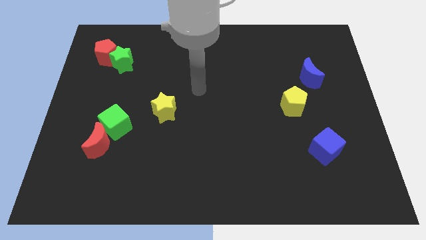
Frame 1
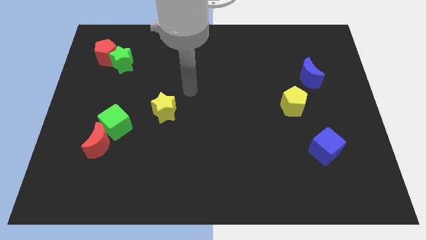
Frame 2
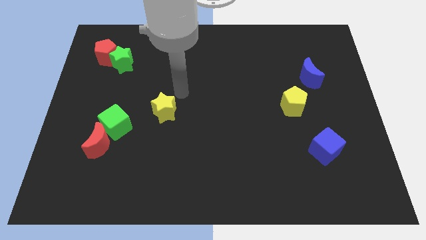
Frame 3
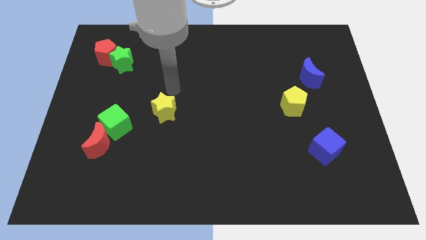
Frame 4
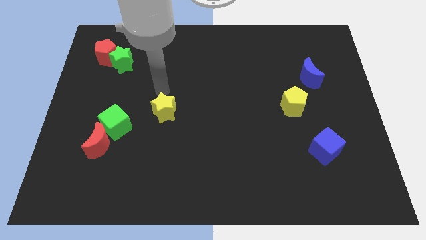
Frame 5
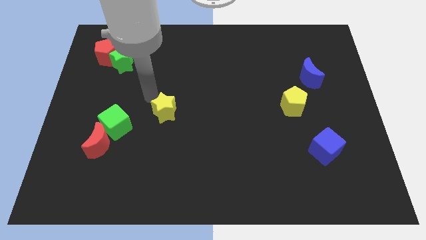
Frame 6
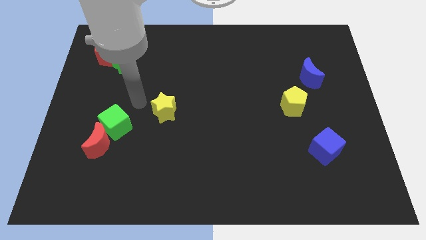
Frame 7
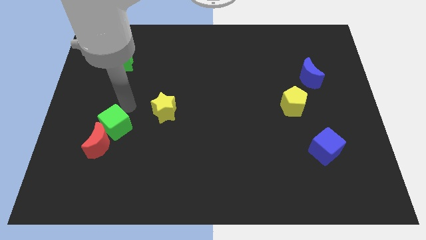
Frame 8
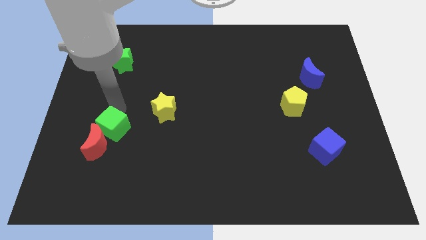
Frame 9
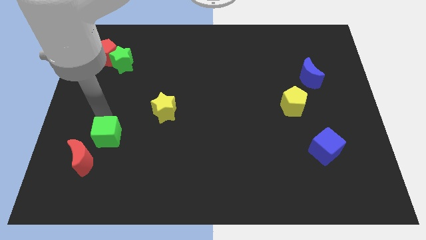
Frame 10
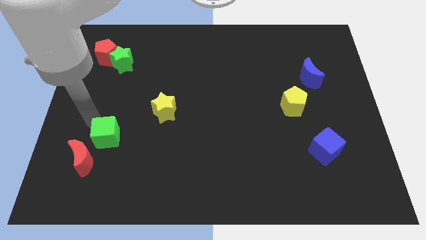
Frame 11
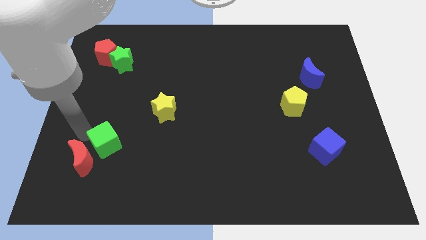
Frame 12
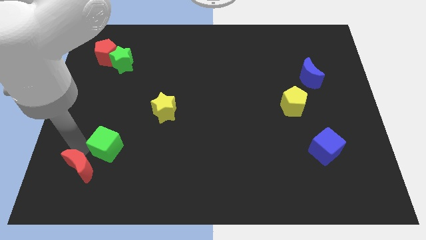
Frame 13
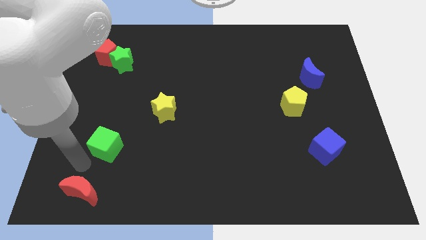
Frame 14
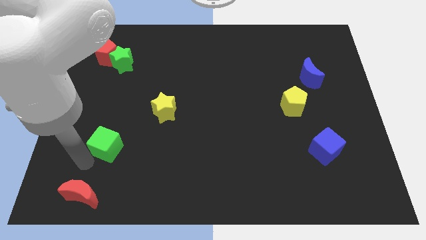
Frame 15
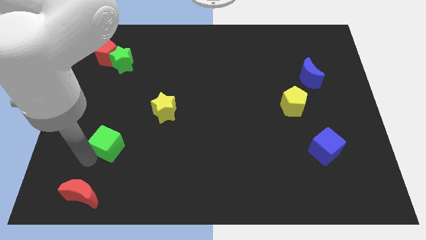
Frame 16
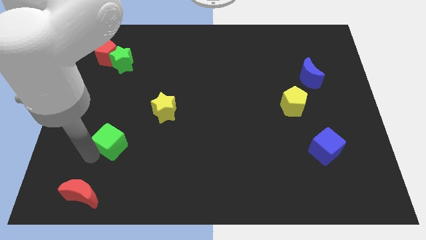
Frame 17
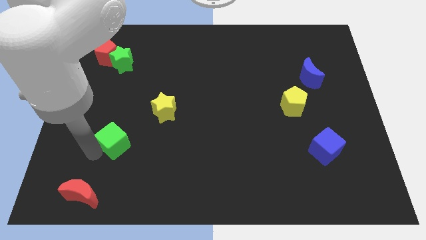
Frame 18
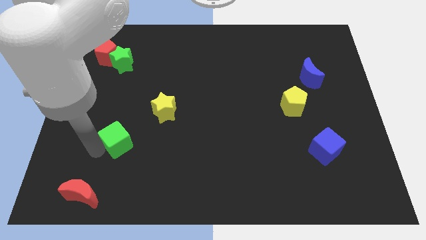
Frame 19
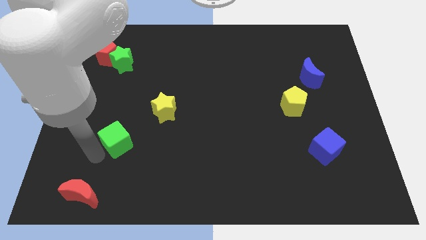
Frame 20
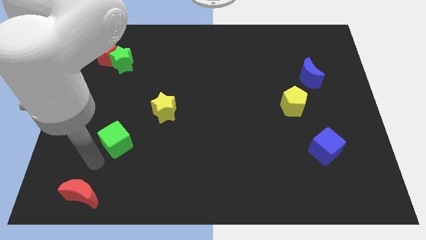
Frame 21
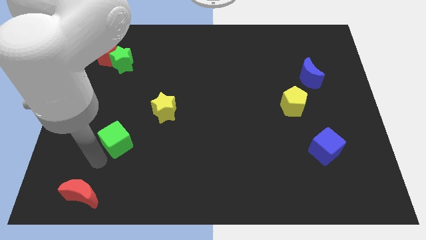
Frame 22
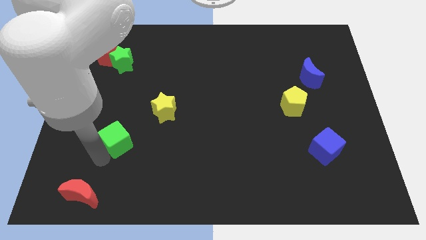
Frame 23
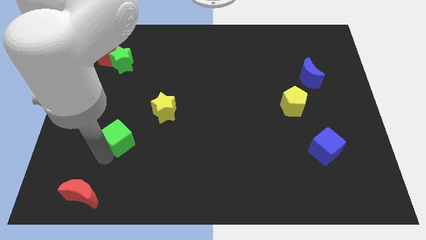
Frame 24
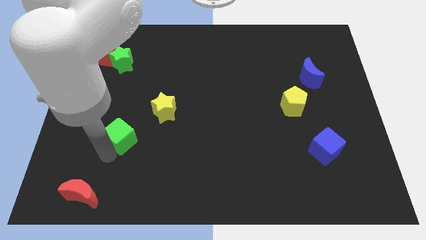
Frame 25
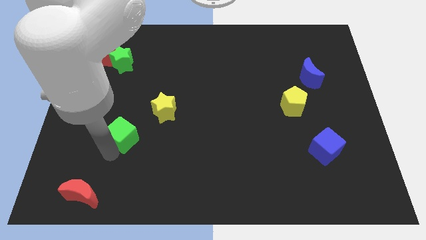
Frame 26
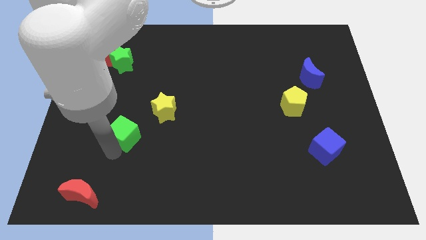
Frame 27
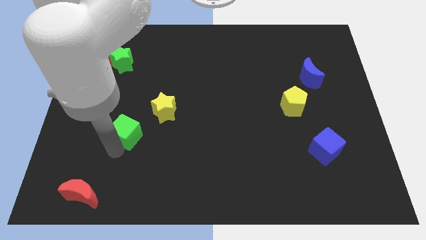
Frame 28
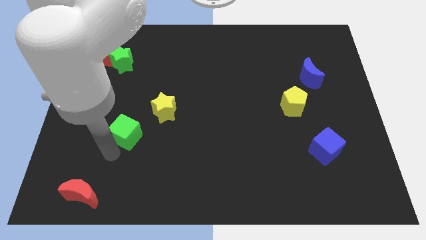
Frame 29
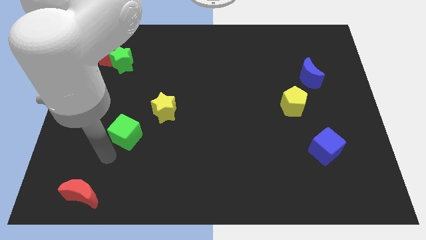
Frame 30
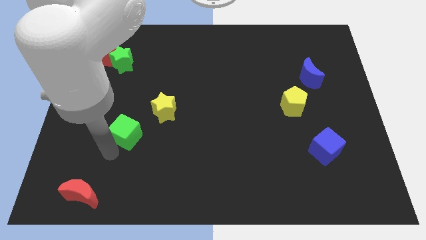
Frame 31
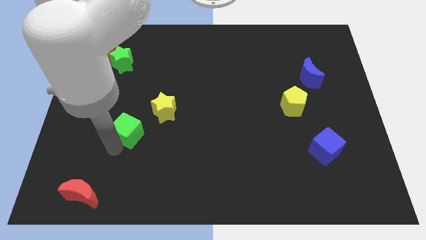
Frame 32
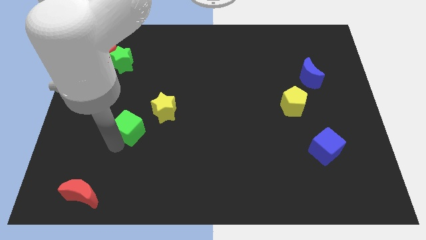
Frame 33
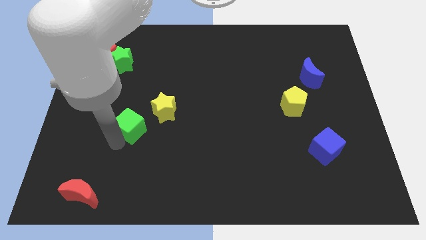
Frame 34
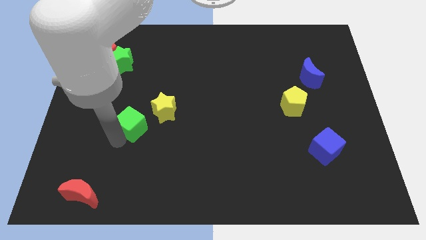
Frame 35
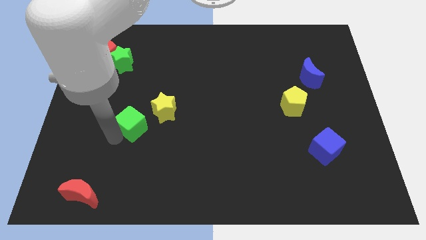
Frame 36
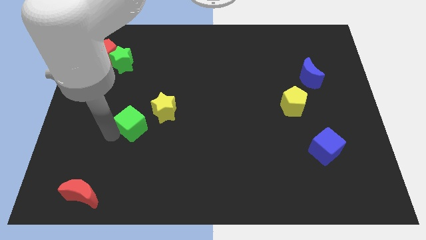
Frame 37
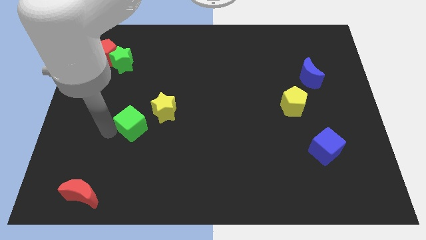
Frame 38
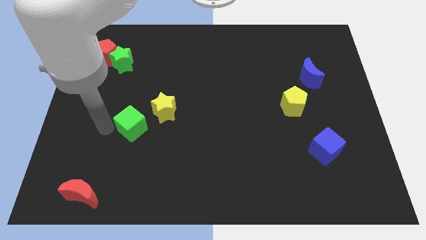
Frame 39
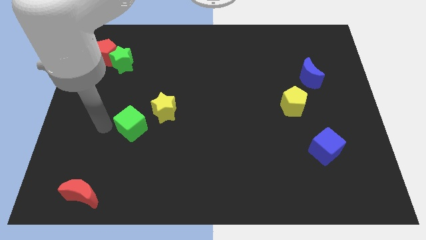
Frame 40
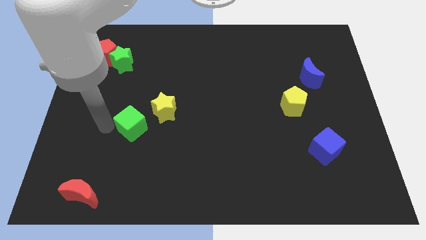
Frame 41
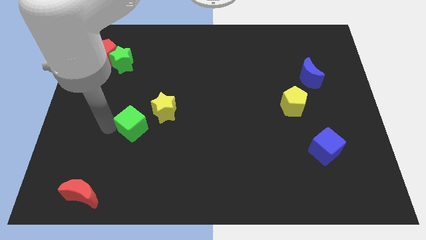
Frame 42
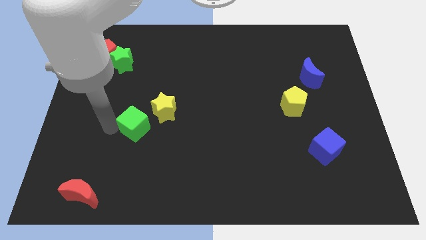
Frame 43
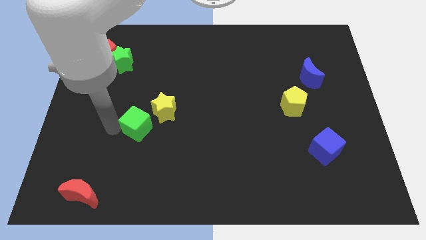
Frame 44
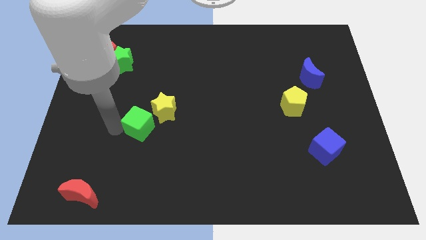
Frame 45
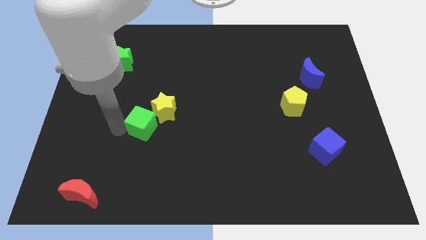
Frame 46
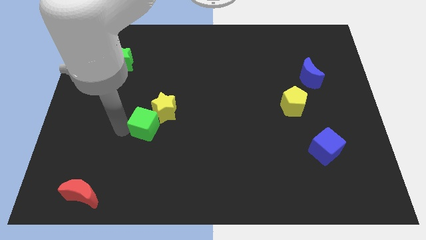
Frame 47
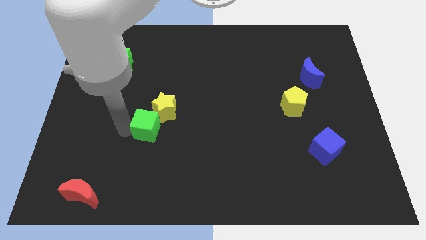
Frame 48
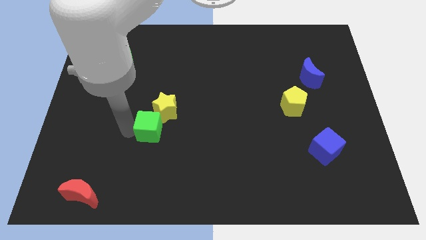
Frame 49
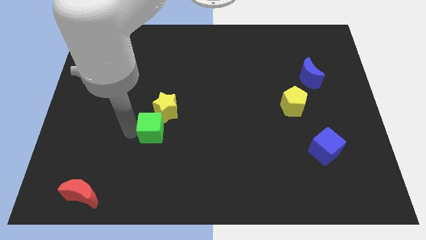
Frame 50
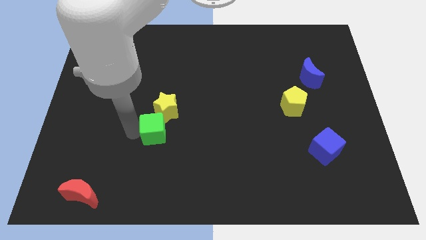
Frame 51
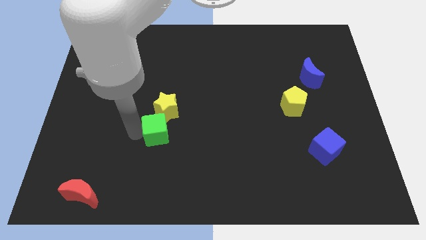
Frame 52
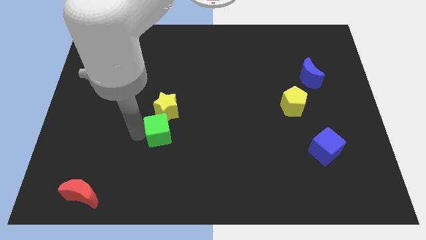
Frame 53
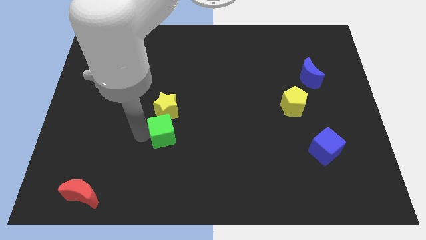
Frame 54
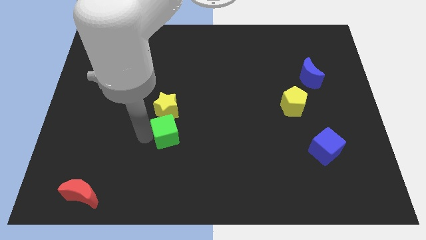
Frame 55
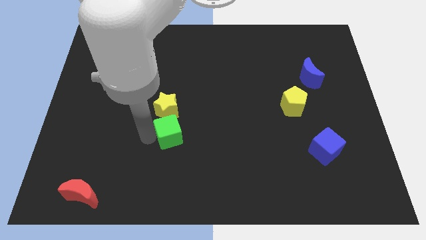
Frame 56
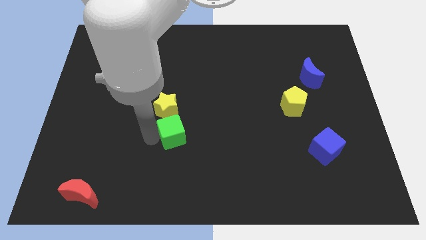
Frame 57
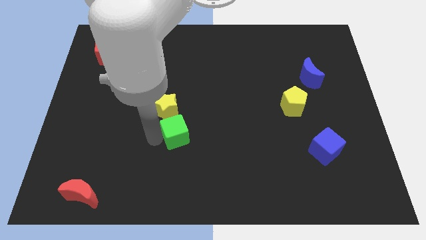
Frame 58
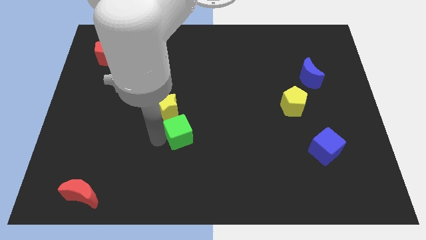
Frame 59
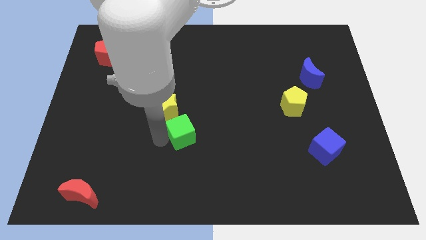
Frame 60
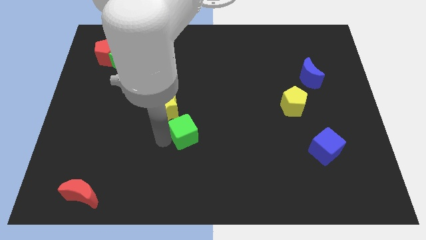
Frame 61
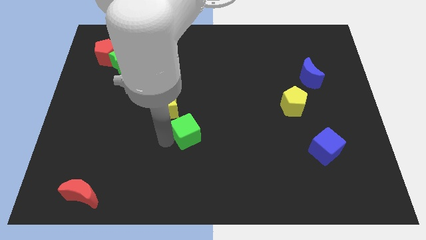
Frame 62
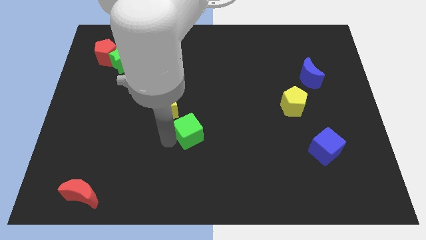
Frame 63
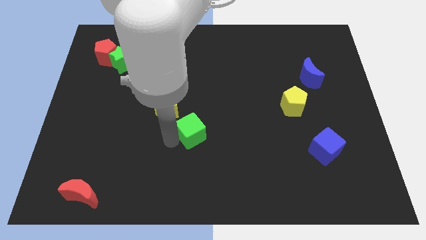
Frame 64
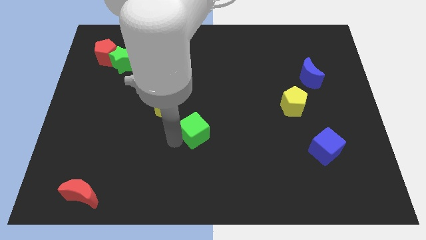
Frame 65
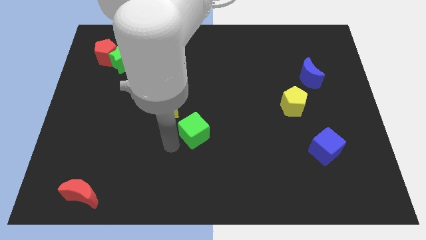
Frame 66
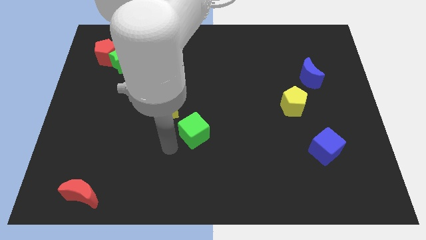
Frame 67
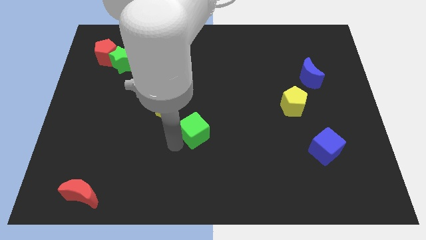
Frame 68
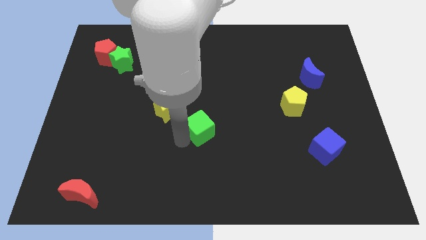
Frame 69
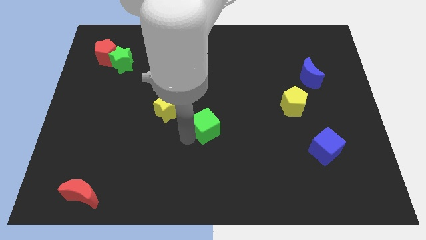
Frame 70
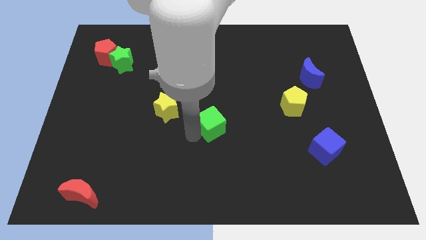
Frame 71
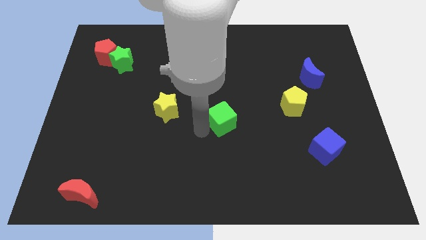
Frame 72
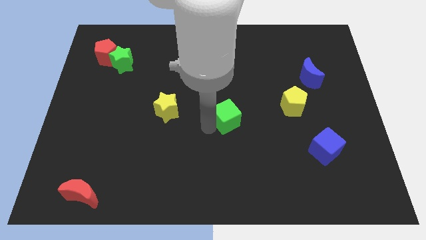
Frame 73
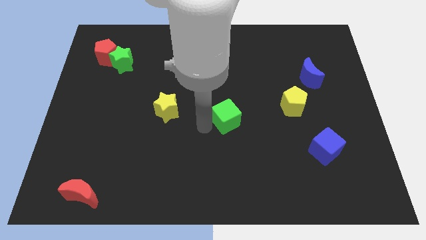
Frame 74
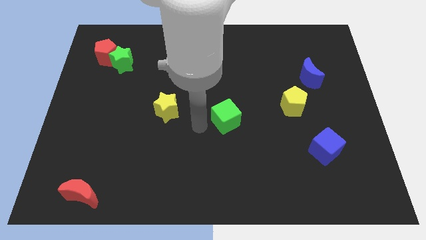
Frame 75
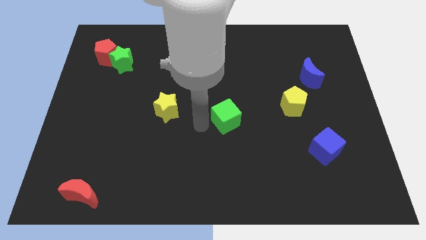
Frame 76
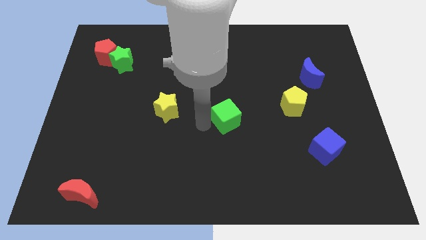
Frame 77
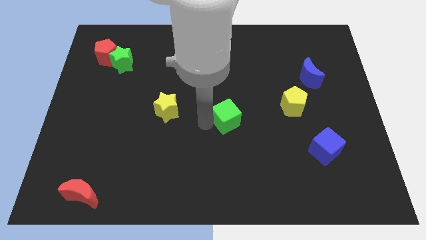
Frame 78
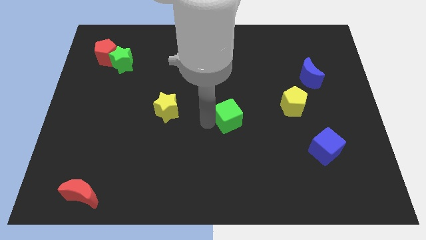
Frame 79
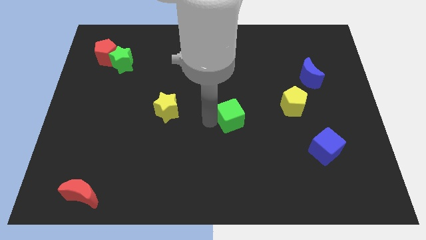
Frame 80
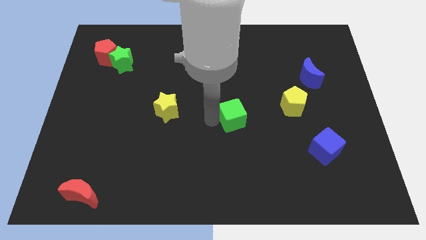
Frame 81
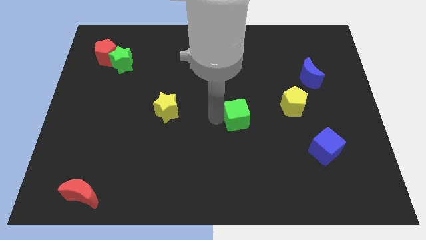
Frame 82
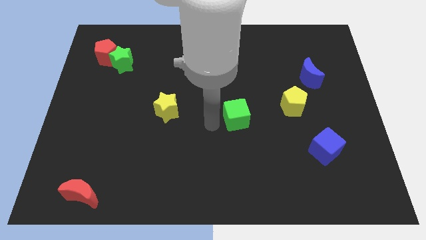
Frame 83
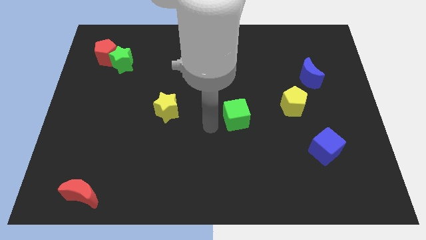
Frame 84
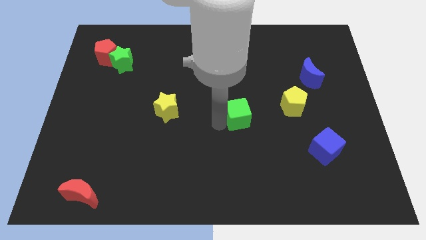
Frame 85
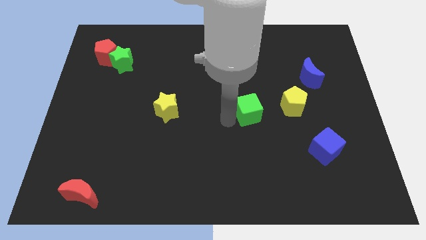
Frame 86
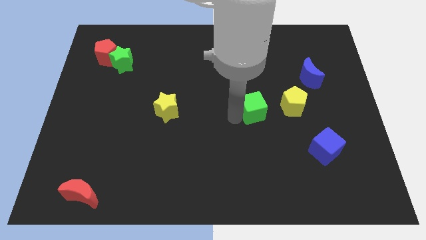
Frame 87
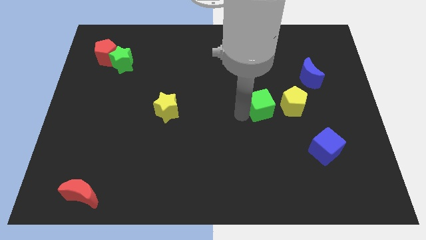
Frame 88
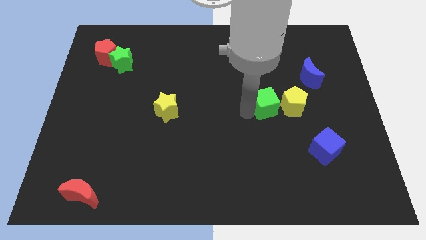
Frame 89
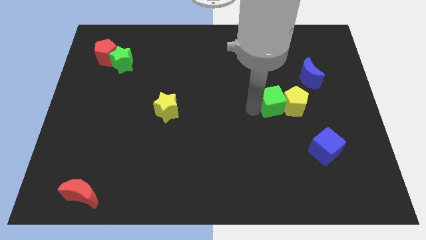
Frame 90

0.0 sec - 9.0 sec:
push the green cube to the yellow pentagon
